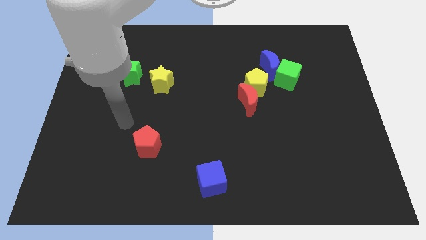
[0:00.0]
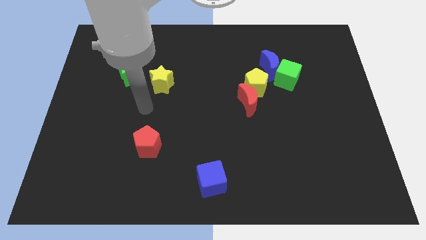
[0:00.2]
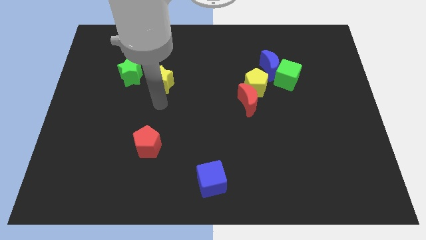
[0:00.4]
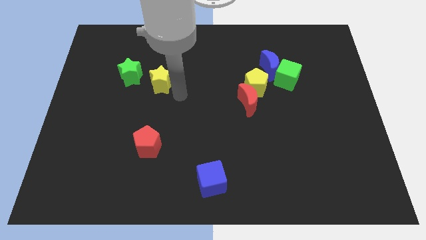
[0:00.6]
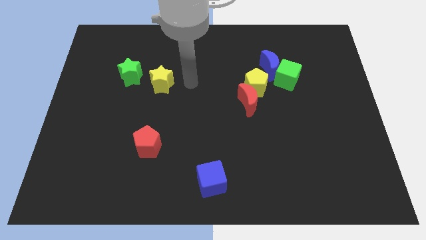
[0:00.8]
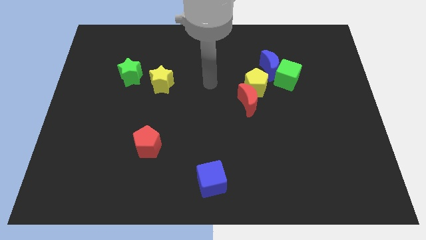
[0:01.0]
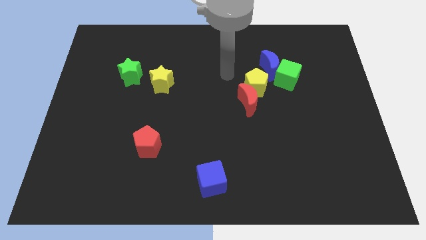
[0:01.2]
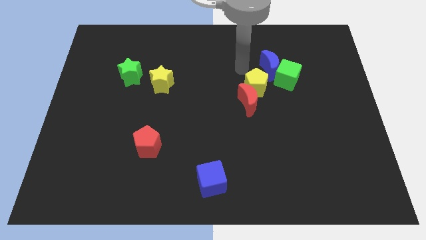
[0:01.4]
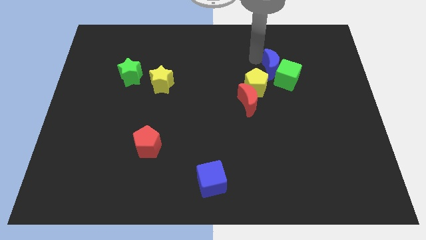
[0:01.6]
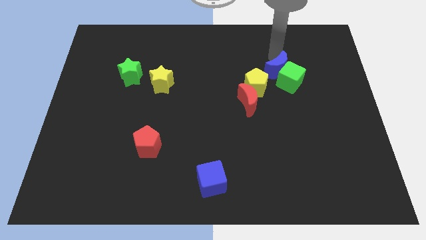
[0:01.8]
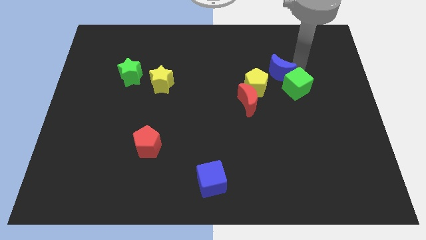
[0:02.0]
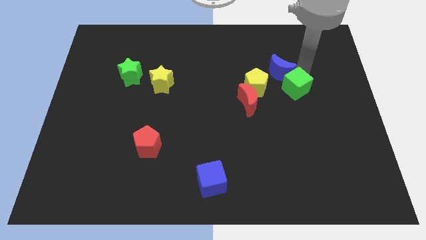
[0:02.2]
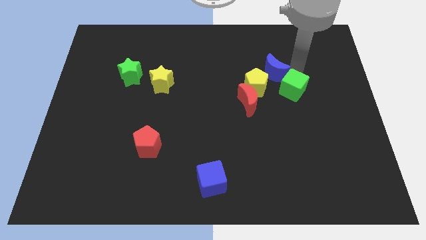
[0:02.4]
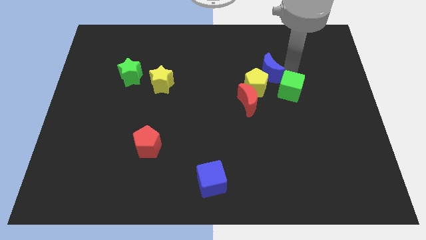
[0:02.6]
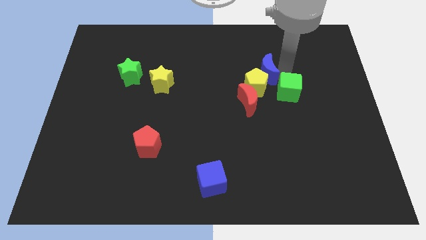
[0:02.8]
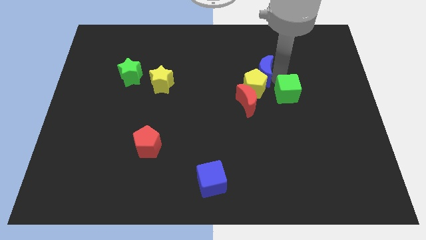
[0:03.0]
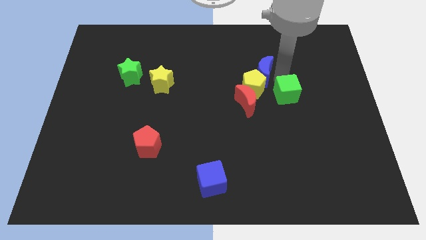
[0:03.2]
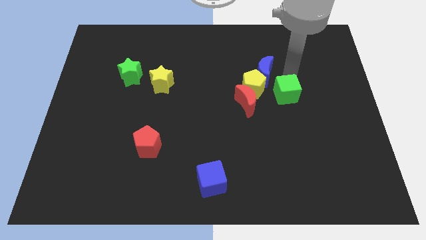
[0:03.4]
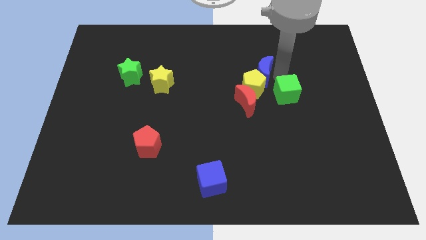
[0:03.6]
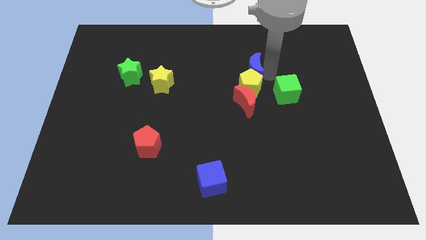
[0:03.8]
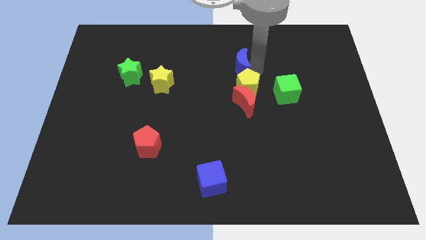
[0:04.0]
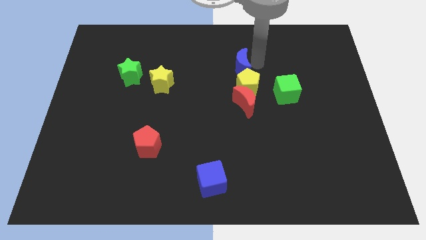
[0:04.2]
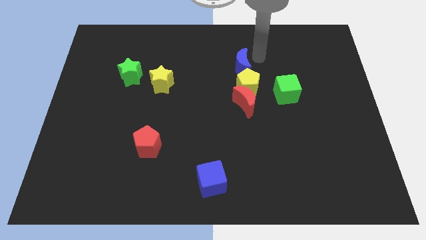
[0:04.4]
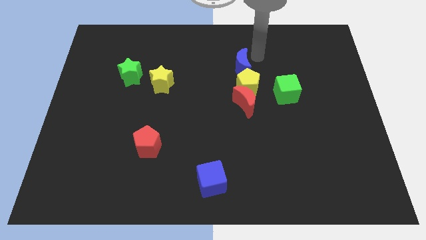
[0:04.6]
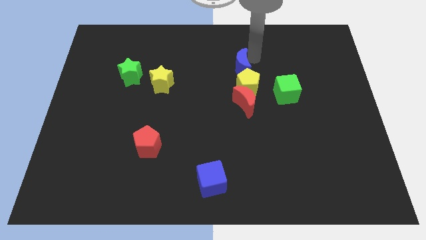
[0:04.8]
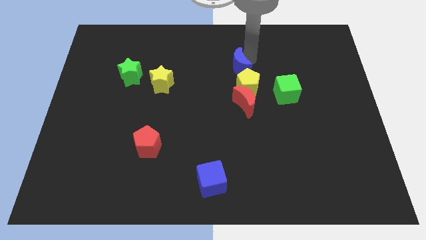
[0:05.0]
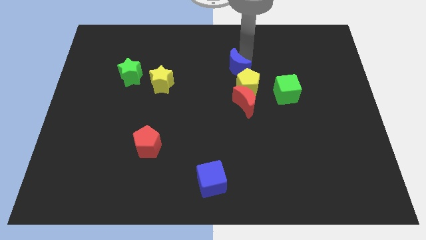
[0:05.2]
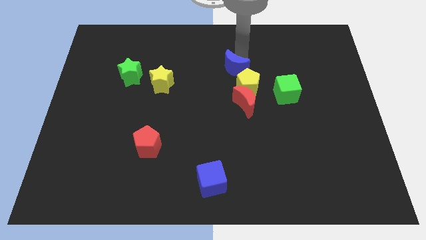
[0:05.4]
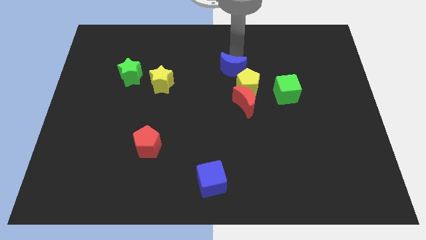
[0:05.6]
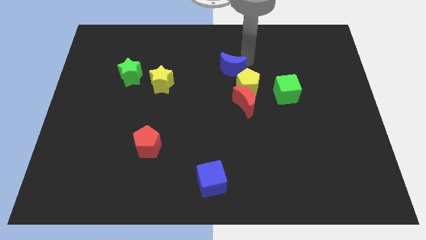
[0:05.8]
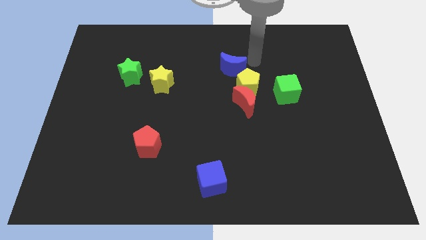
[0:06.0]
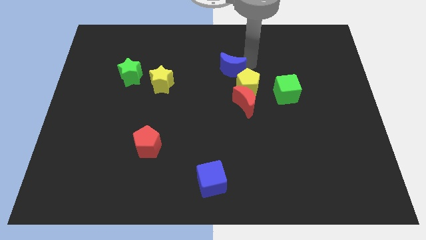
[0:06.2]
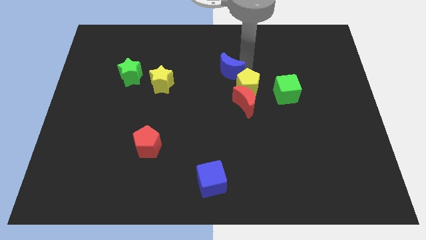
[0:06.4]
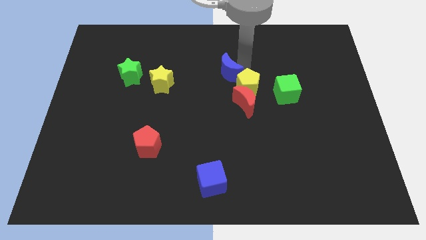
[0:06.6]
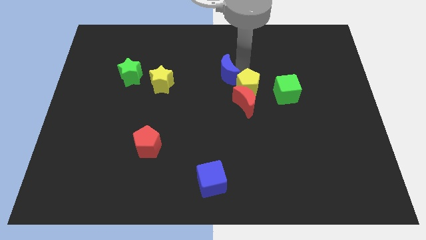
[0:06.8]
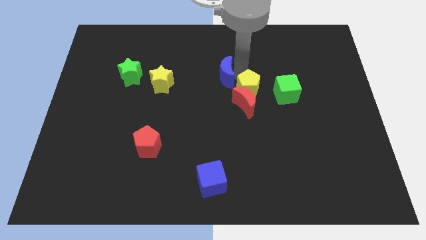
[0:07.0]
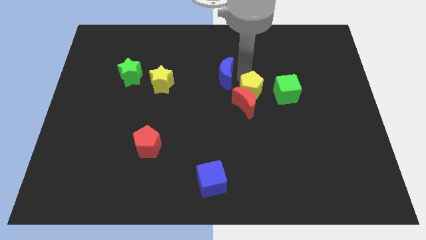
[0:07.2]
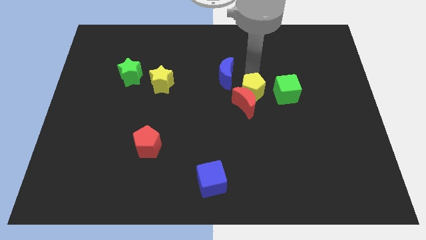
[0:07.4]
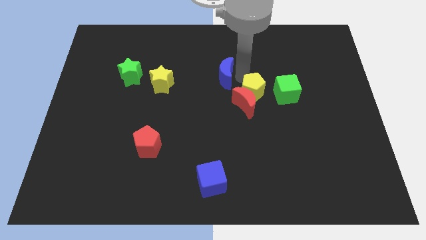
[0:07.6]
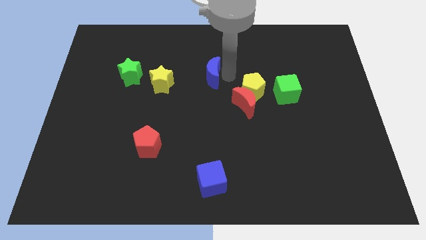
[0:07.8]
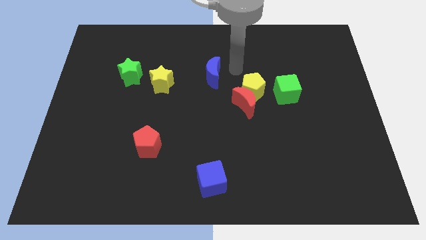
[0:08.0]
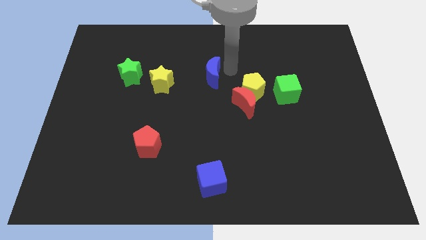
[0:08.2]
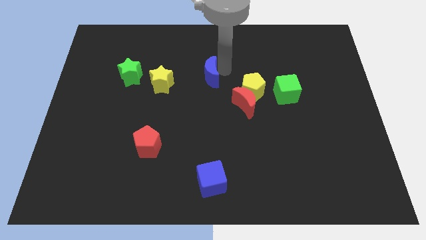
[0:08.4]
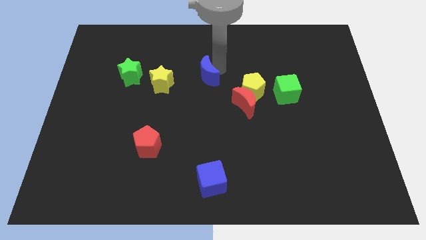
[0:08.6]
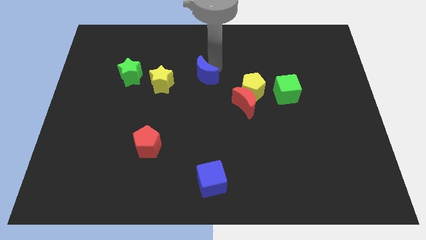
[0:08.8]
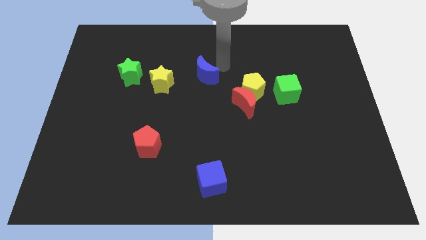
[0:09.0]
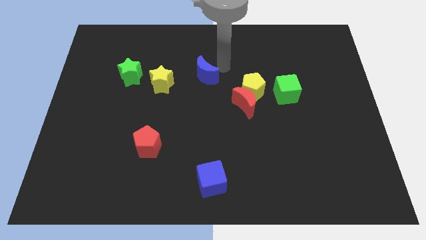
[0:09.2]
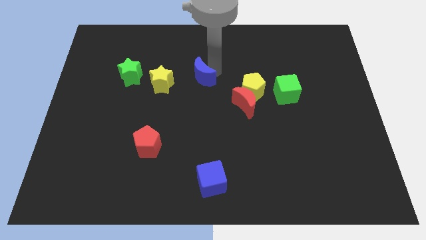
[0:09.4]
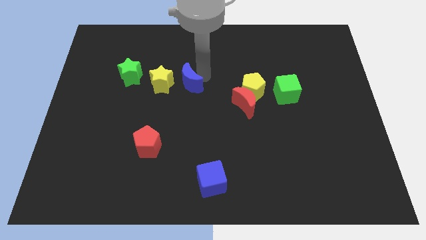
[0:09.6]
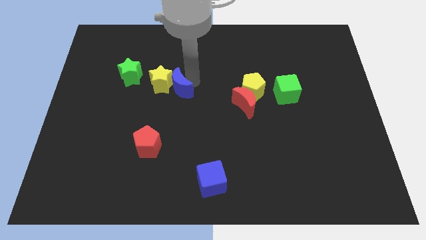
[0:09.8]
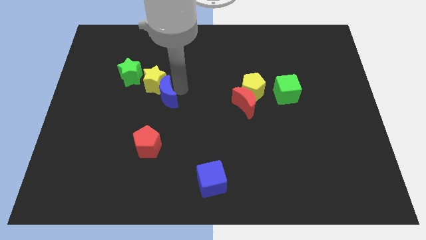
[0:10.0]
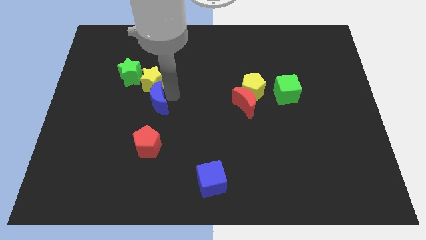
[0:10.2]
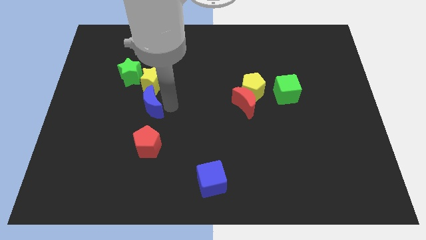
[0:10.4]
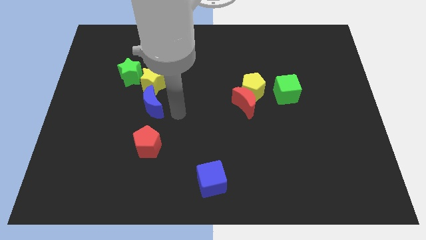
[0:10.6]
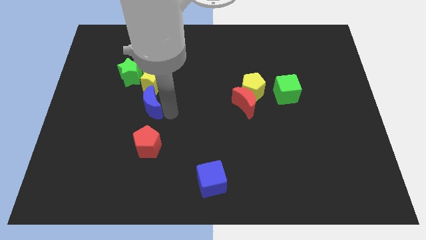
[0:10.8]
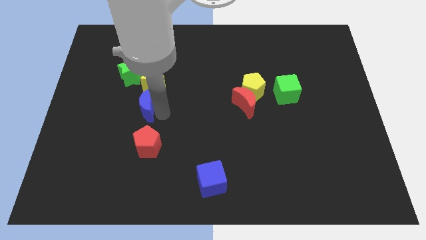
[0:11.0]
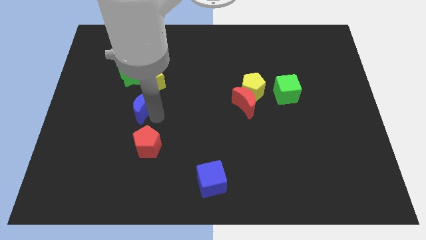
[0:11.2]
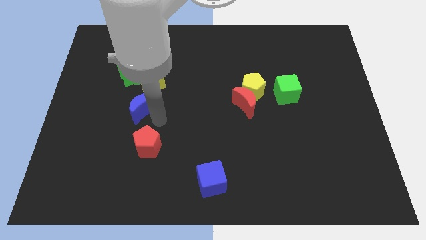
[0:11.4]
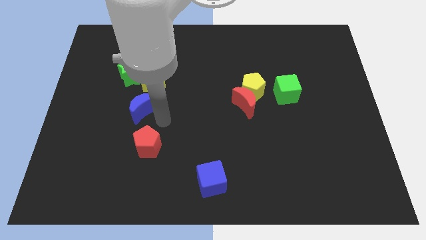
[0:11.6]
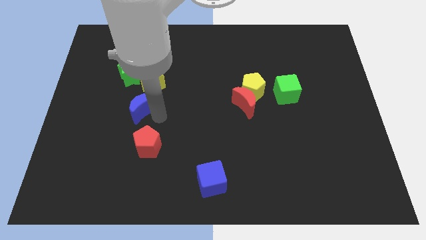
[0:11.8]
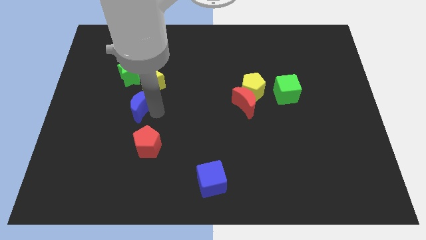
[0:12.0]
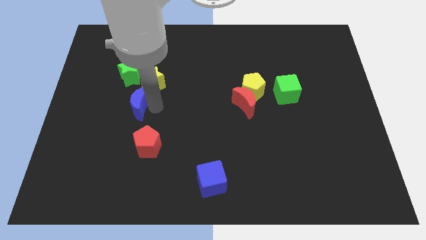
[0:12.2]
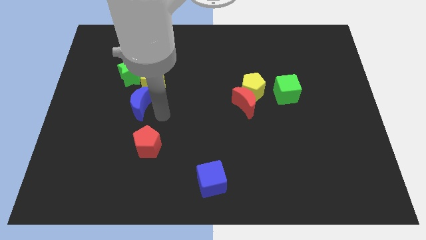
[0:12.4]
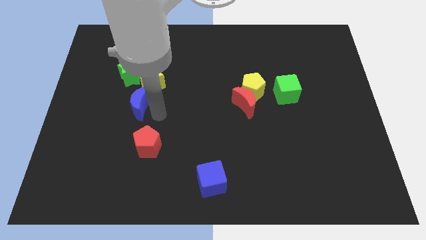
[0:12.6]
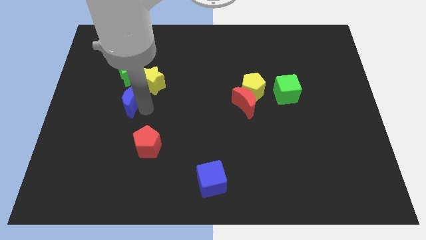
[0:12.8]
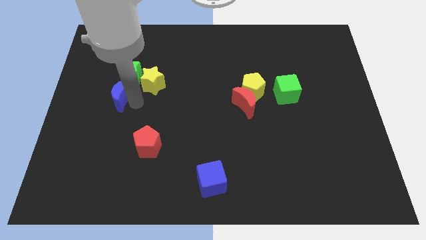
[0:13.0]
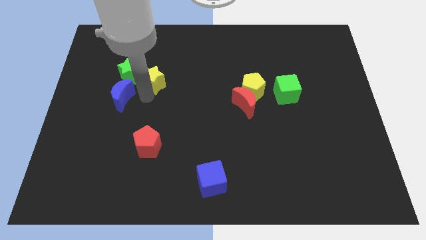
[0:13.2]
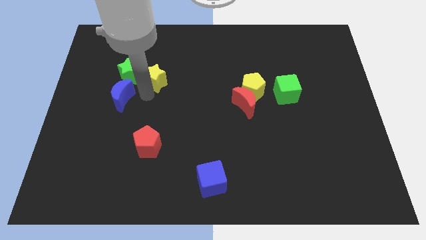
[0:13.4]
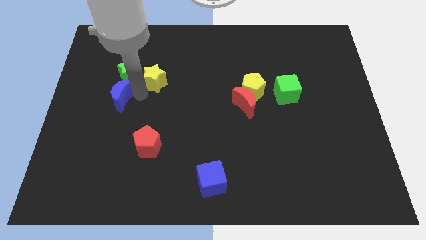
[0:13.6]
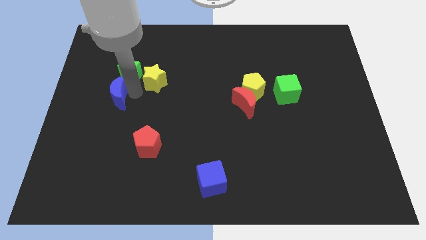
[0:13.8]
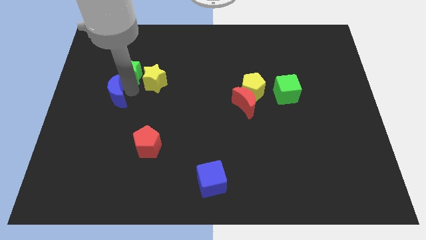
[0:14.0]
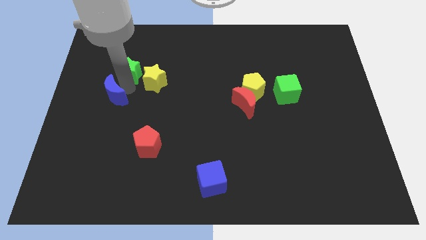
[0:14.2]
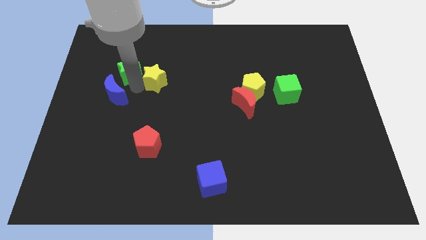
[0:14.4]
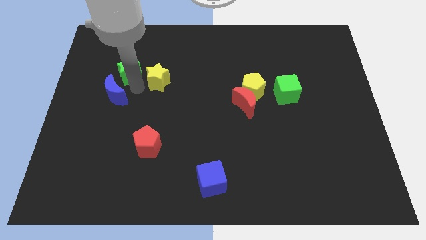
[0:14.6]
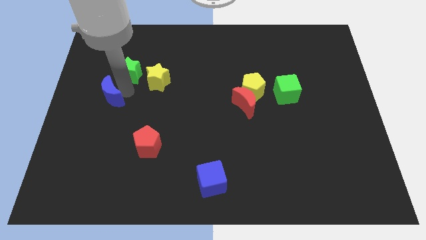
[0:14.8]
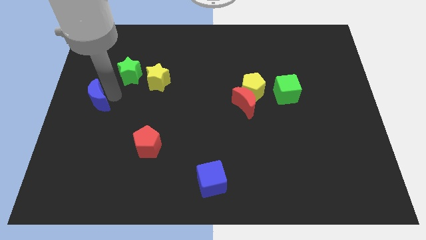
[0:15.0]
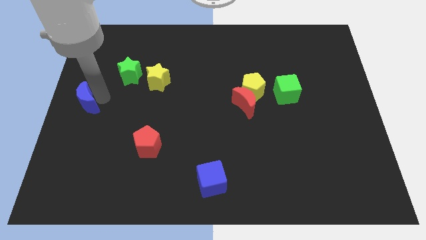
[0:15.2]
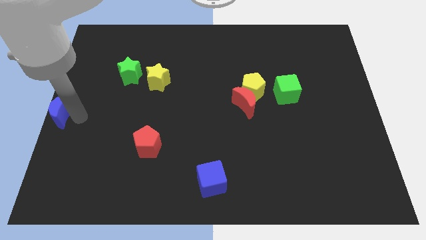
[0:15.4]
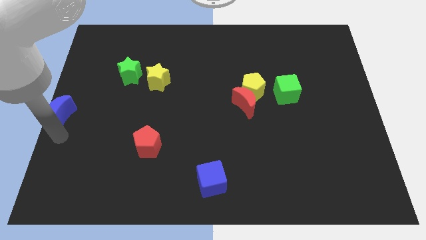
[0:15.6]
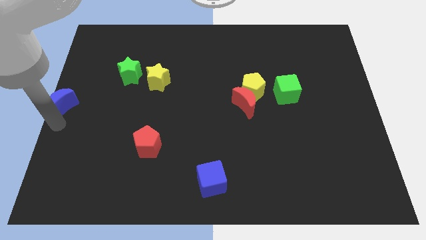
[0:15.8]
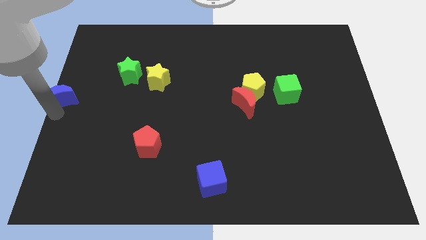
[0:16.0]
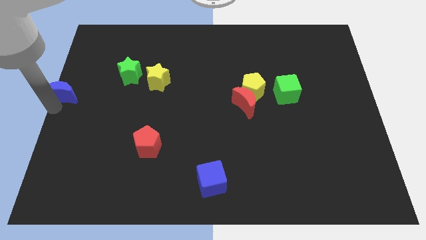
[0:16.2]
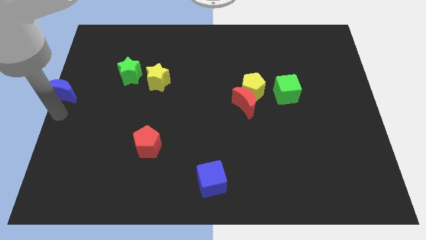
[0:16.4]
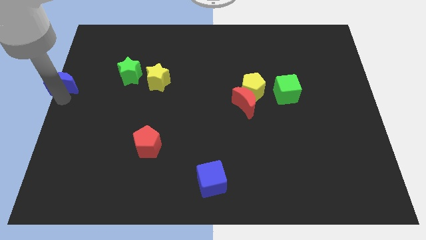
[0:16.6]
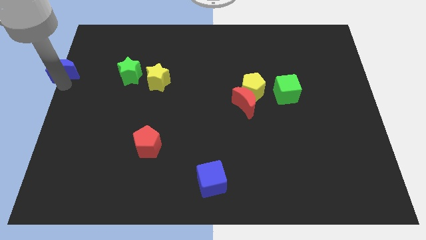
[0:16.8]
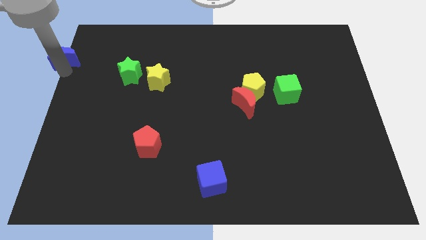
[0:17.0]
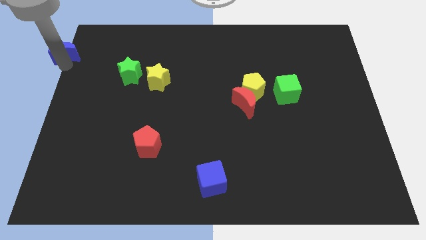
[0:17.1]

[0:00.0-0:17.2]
slide the blue moon to the top left of the board
